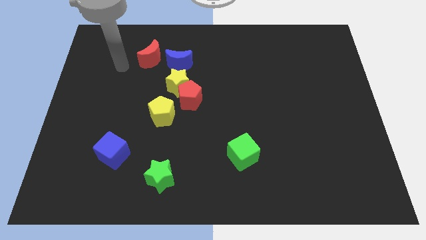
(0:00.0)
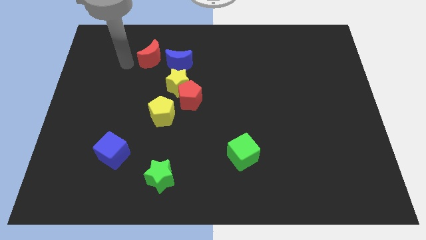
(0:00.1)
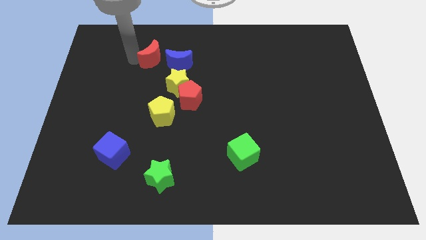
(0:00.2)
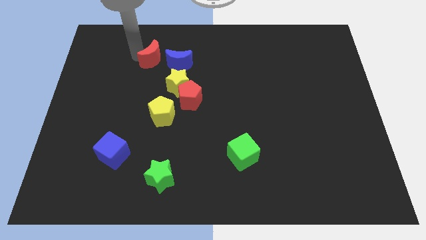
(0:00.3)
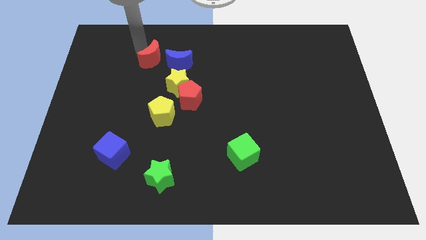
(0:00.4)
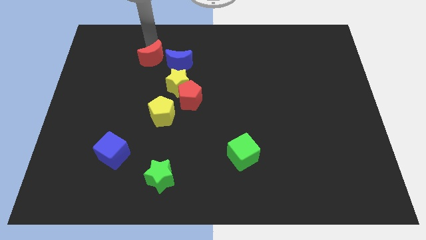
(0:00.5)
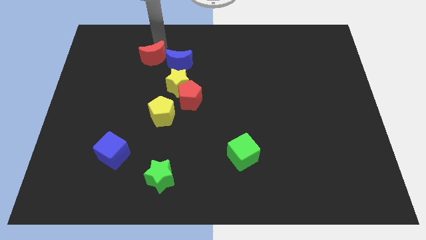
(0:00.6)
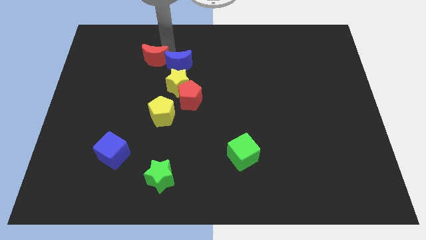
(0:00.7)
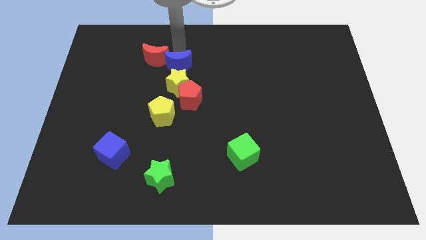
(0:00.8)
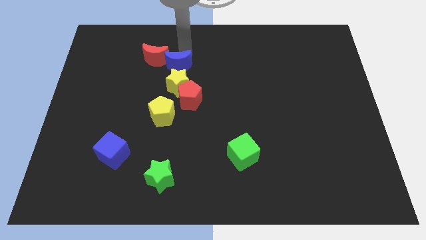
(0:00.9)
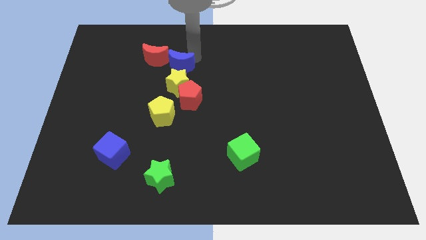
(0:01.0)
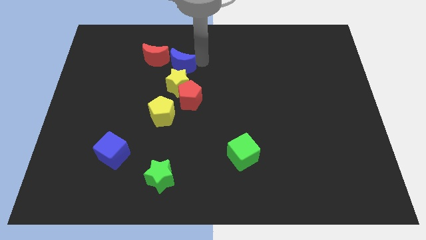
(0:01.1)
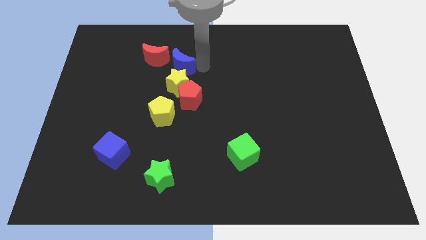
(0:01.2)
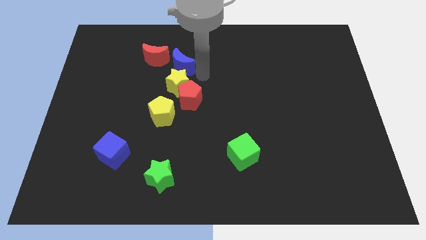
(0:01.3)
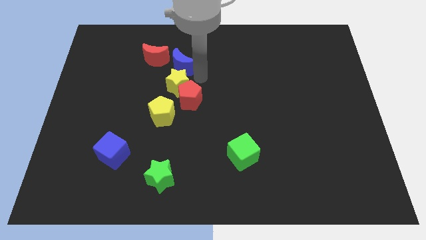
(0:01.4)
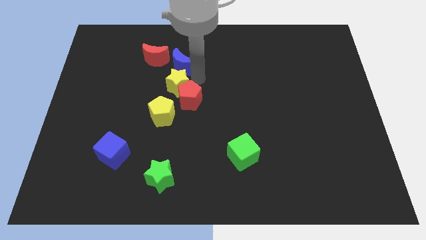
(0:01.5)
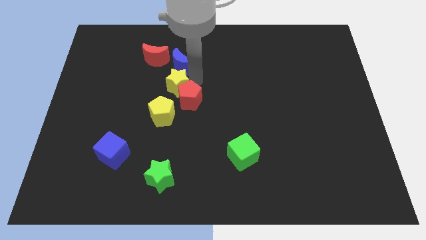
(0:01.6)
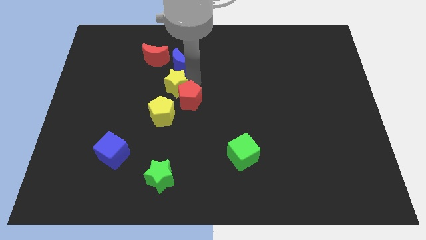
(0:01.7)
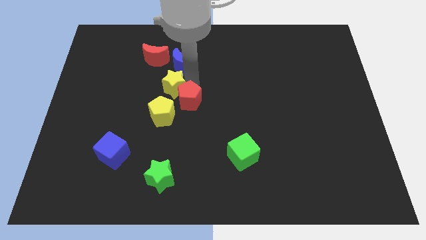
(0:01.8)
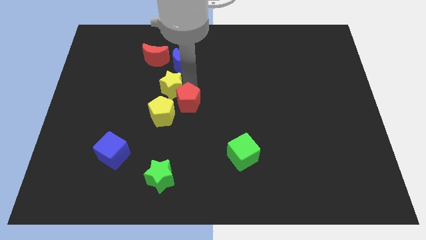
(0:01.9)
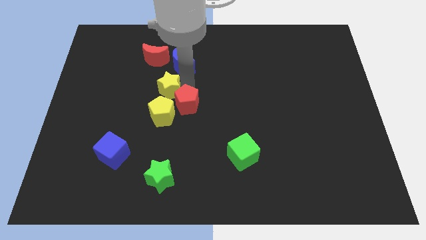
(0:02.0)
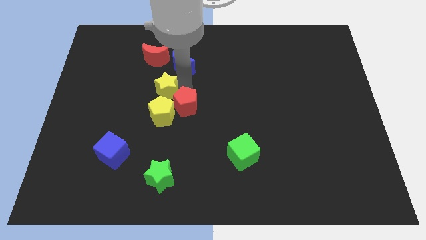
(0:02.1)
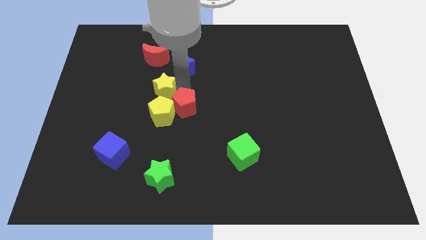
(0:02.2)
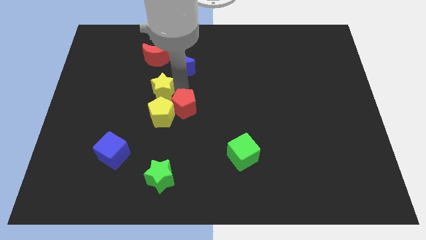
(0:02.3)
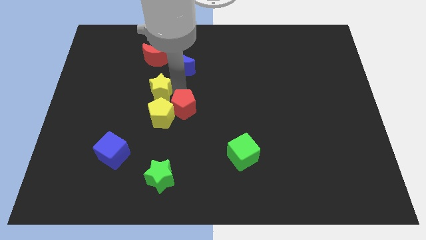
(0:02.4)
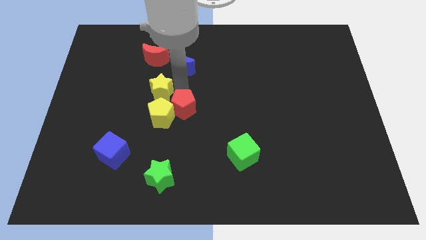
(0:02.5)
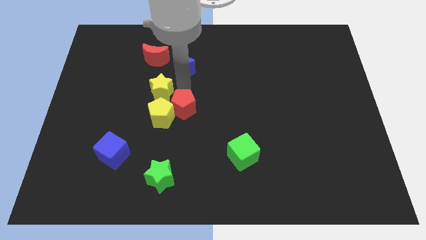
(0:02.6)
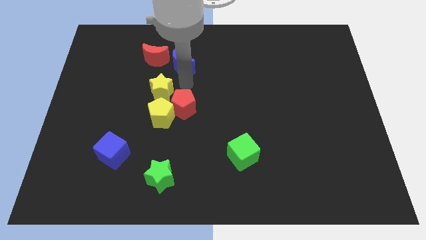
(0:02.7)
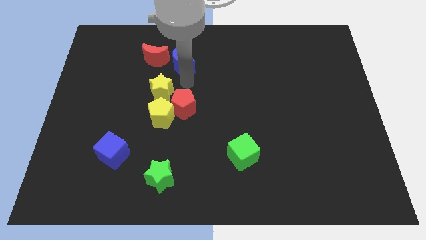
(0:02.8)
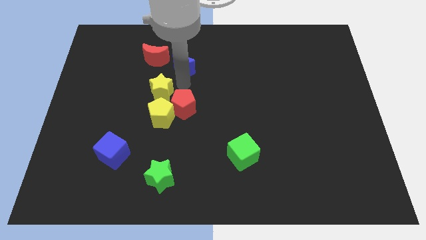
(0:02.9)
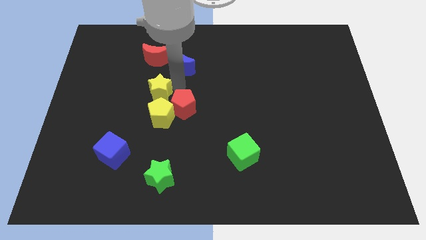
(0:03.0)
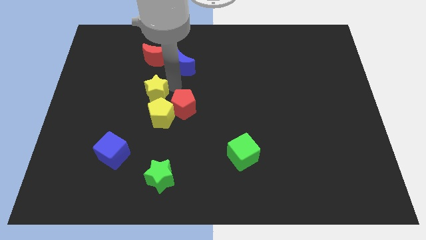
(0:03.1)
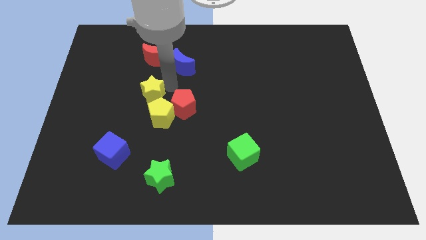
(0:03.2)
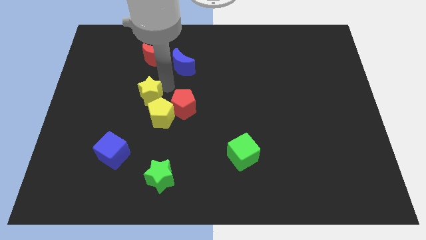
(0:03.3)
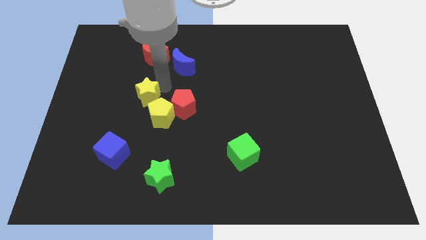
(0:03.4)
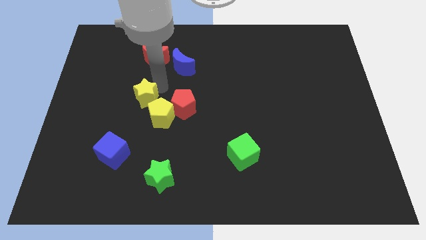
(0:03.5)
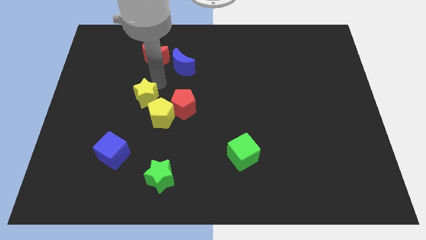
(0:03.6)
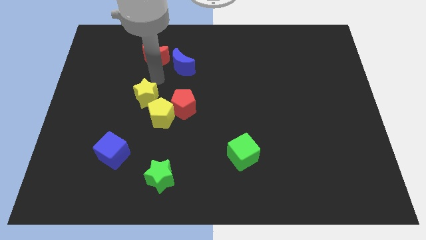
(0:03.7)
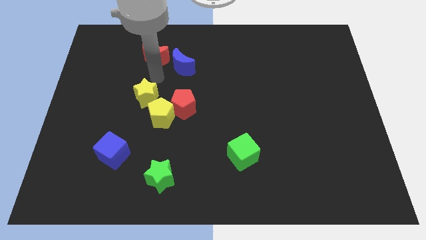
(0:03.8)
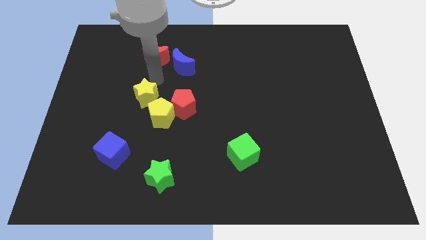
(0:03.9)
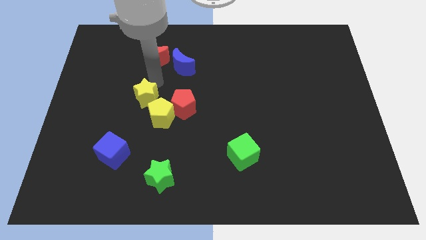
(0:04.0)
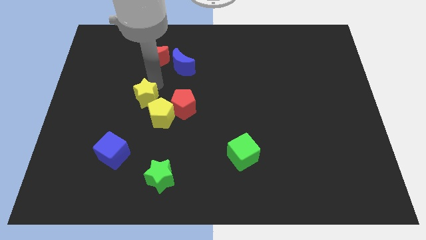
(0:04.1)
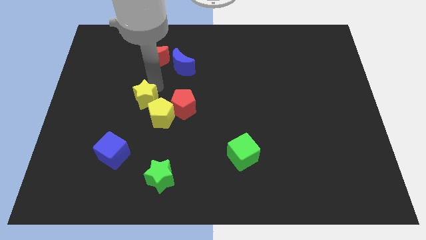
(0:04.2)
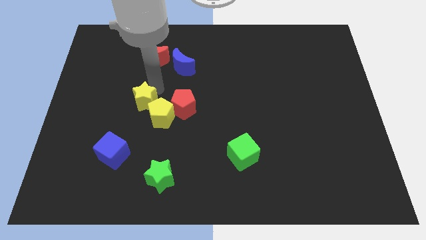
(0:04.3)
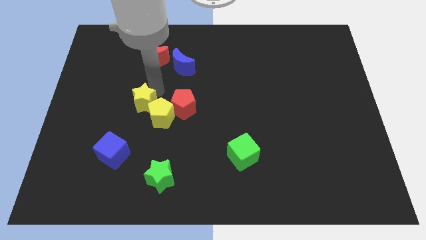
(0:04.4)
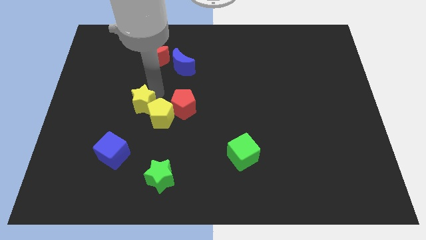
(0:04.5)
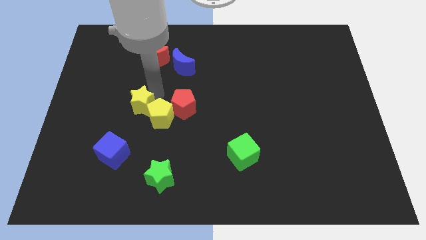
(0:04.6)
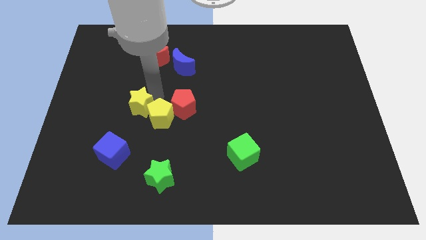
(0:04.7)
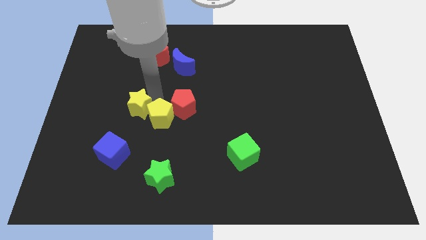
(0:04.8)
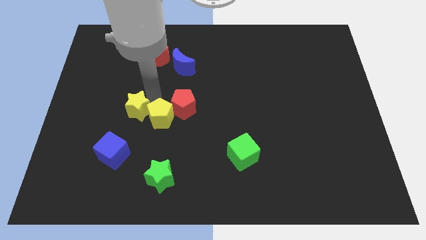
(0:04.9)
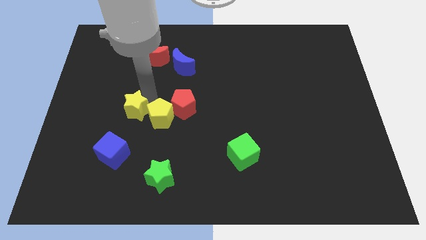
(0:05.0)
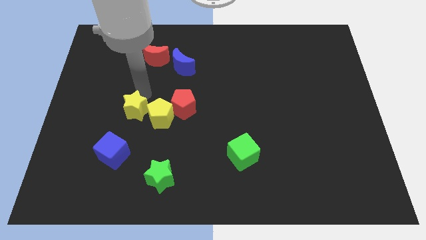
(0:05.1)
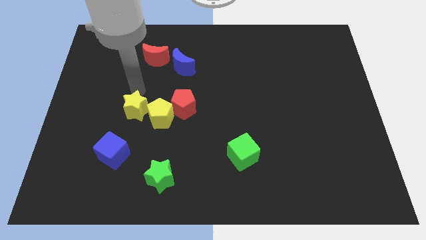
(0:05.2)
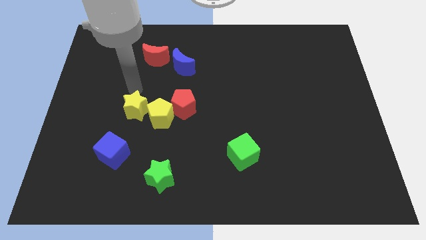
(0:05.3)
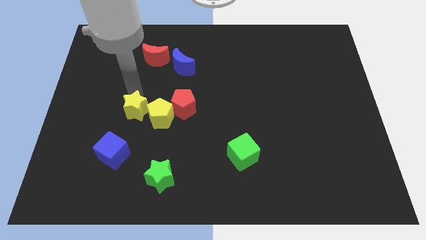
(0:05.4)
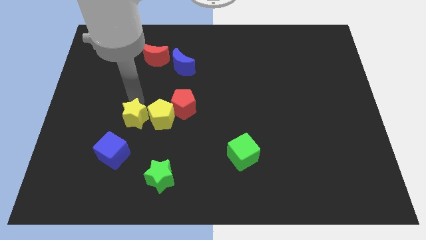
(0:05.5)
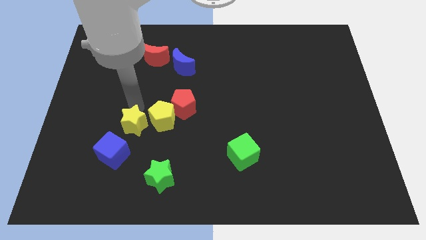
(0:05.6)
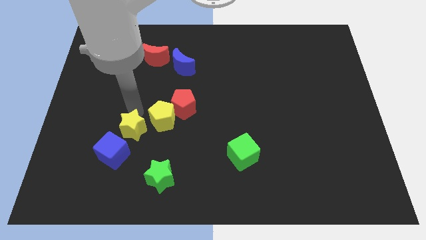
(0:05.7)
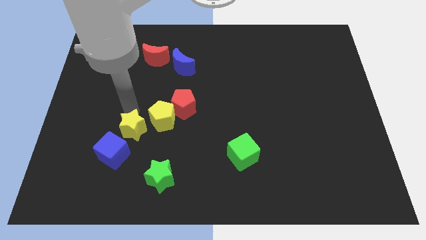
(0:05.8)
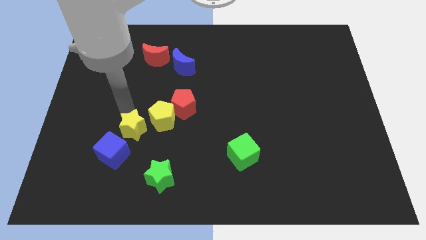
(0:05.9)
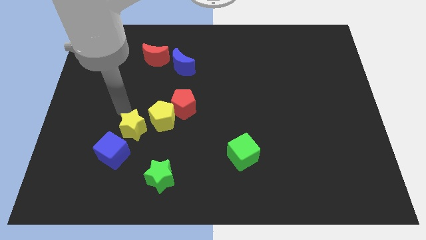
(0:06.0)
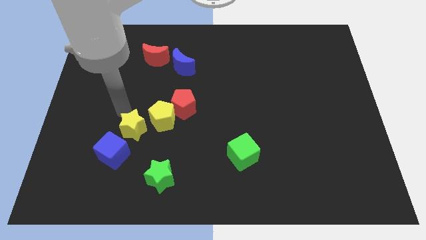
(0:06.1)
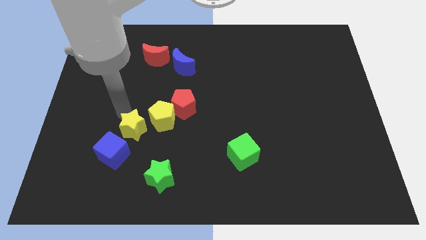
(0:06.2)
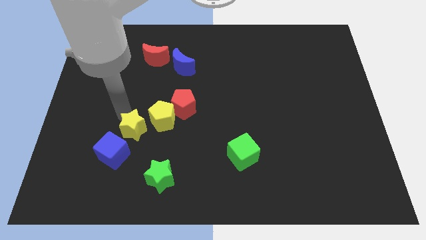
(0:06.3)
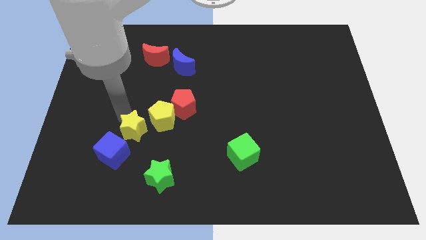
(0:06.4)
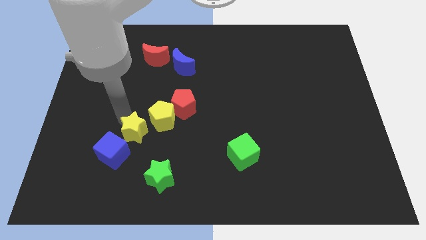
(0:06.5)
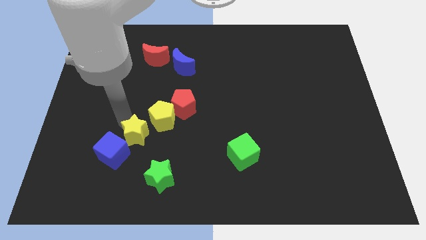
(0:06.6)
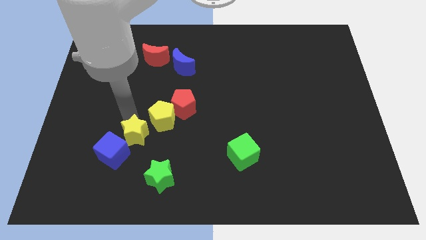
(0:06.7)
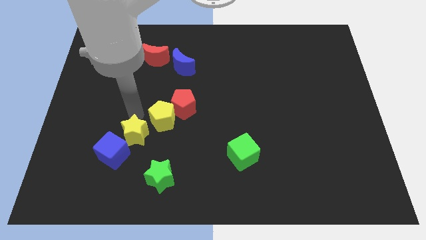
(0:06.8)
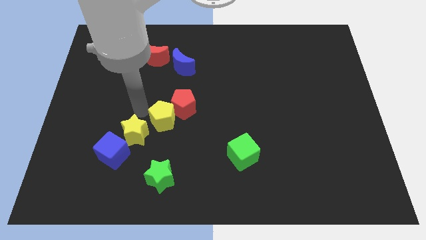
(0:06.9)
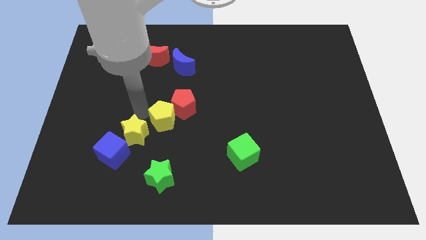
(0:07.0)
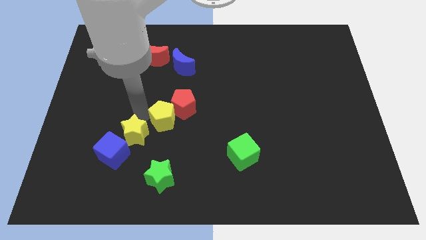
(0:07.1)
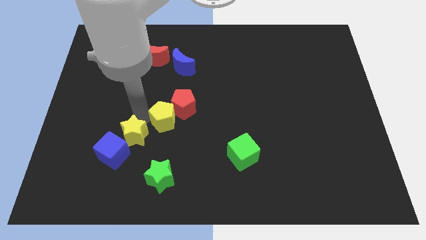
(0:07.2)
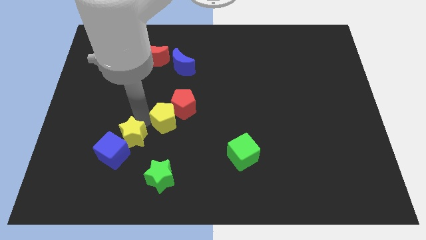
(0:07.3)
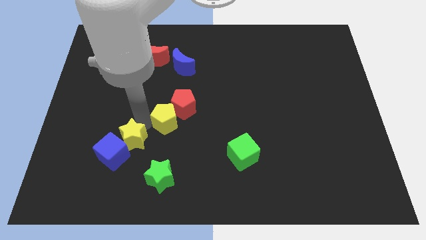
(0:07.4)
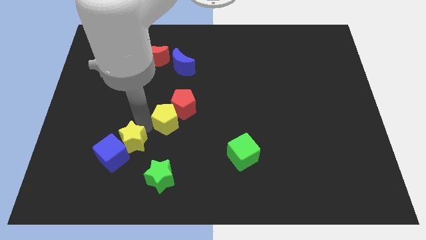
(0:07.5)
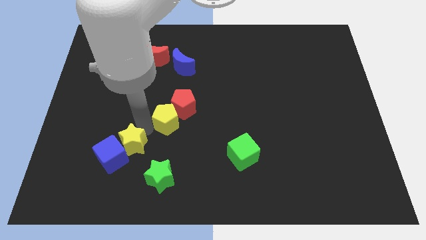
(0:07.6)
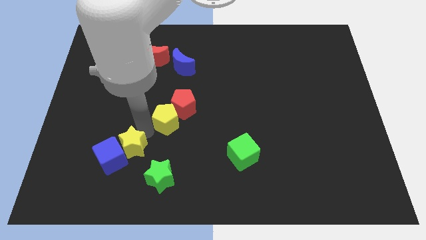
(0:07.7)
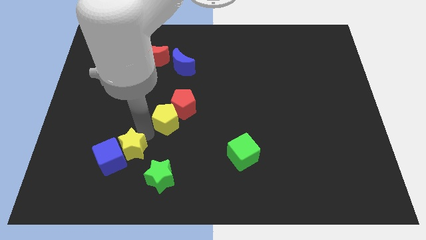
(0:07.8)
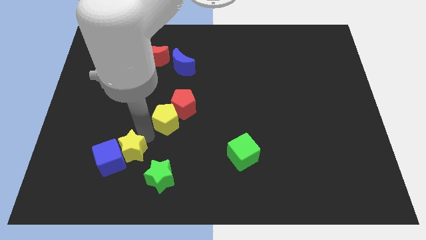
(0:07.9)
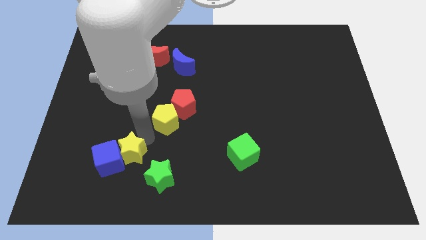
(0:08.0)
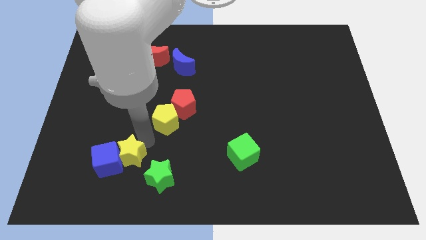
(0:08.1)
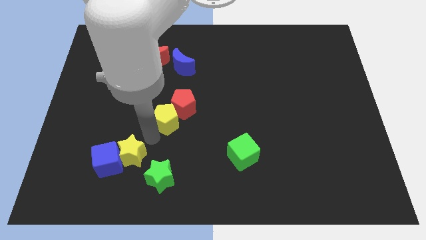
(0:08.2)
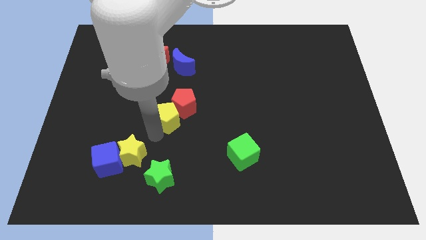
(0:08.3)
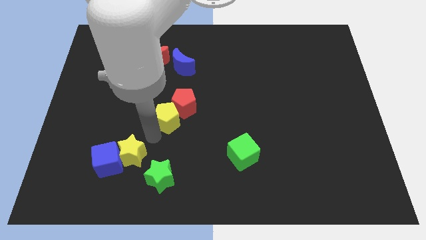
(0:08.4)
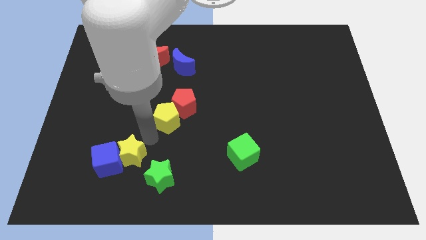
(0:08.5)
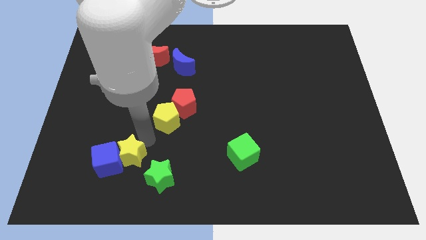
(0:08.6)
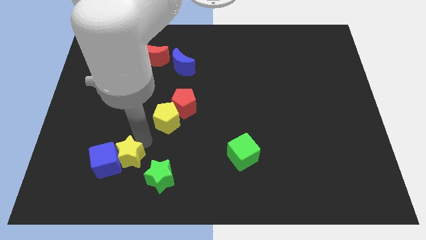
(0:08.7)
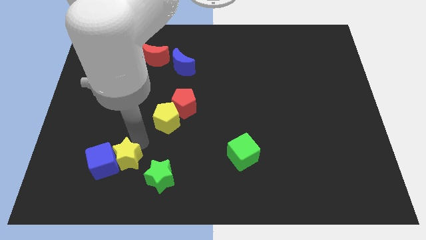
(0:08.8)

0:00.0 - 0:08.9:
slide the yellow star to the left side of the green star
